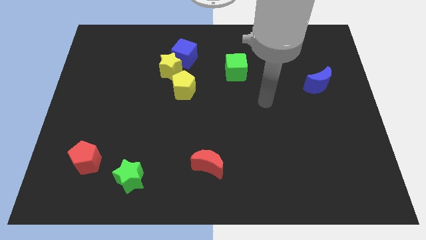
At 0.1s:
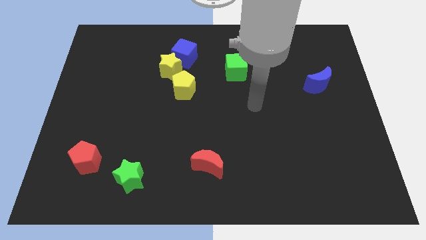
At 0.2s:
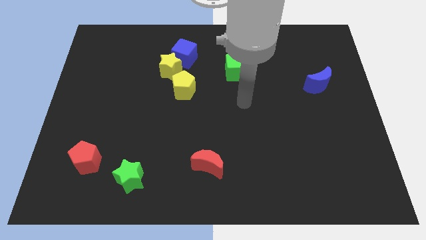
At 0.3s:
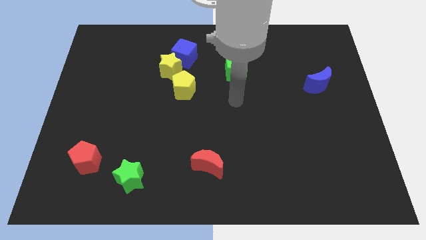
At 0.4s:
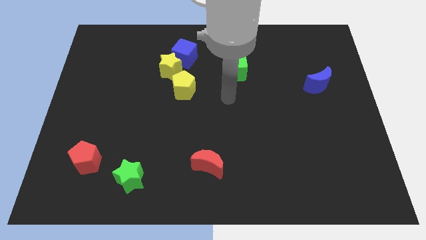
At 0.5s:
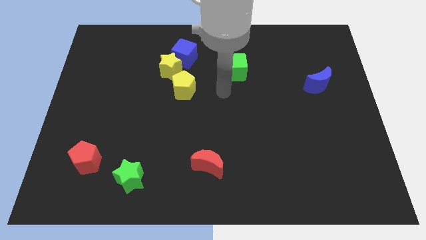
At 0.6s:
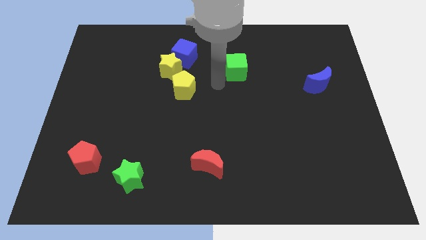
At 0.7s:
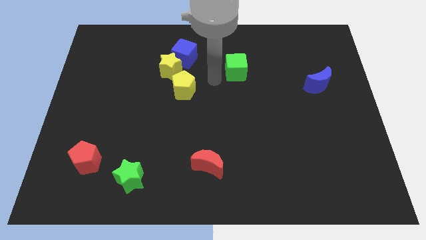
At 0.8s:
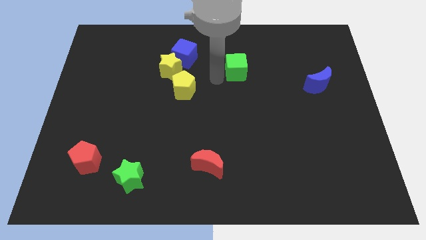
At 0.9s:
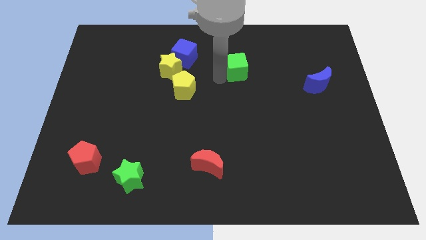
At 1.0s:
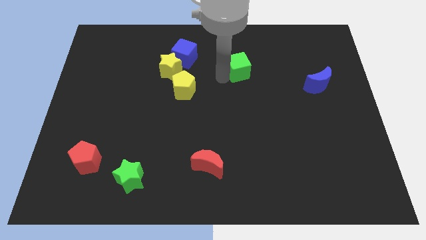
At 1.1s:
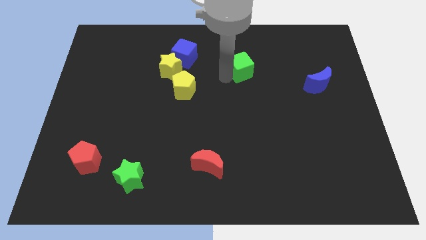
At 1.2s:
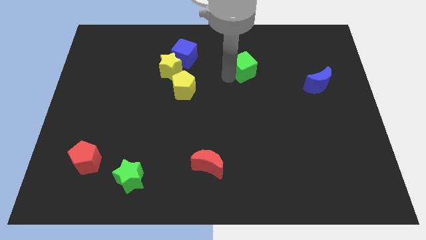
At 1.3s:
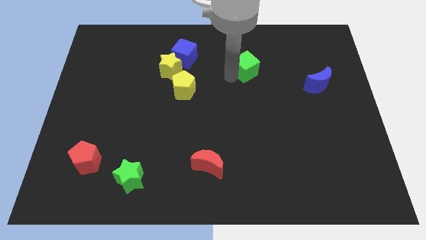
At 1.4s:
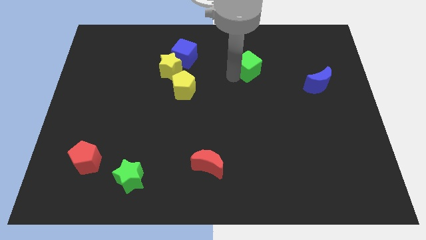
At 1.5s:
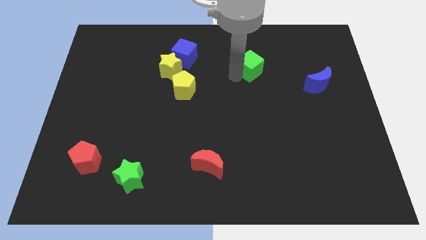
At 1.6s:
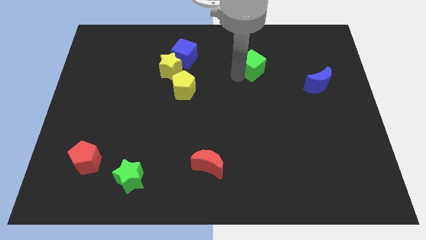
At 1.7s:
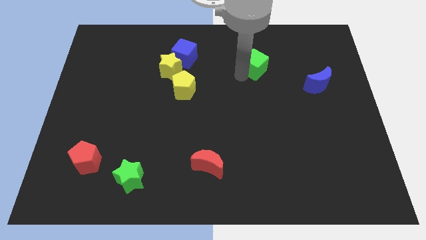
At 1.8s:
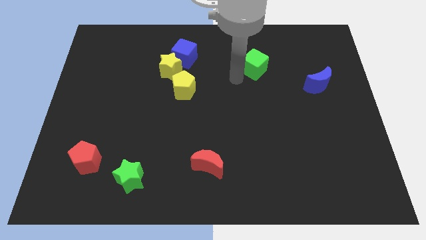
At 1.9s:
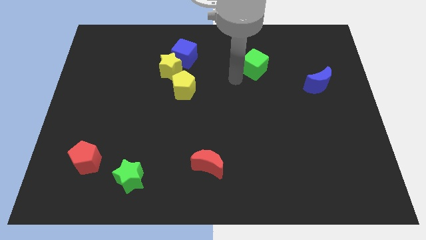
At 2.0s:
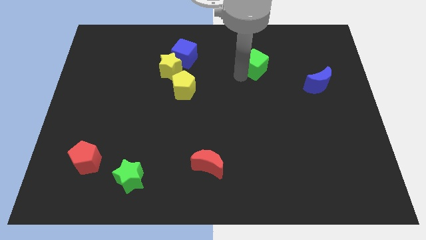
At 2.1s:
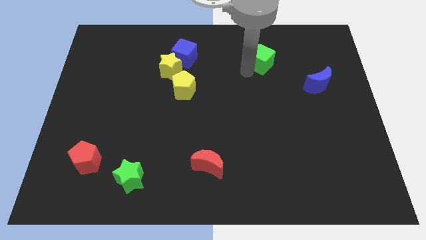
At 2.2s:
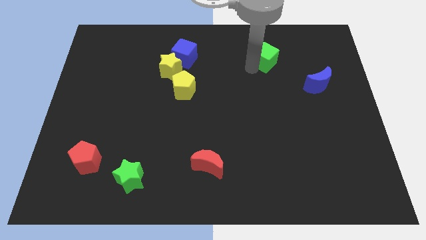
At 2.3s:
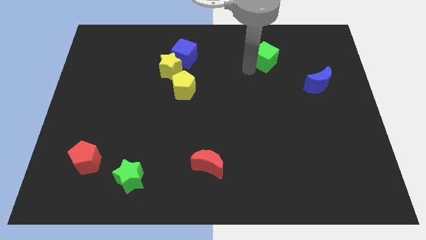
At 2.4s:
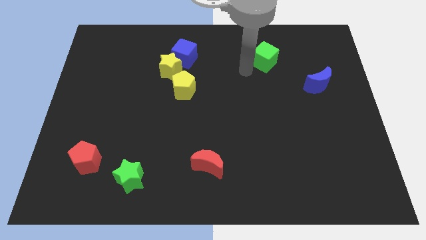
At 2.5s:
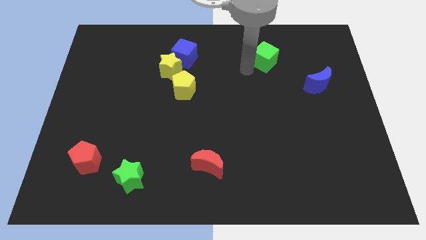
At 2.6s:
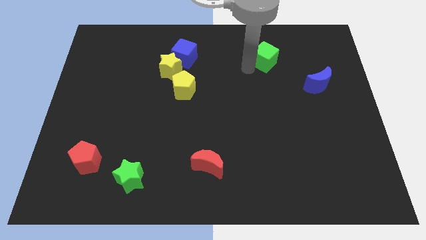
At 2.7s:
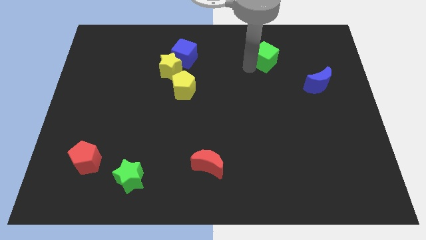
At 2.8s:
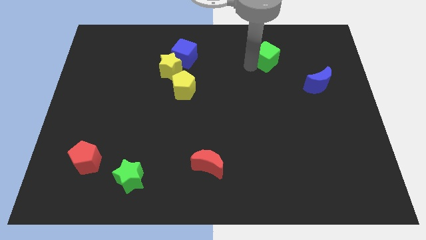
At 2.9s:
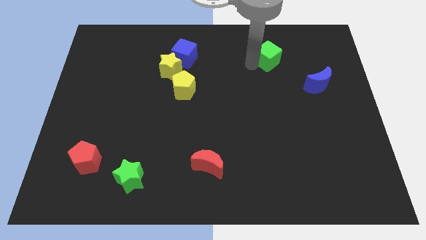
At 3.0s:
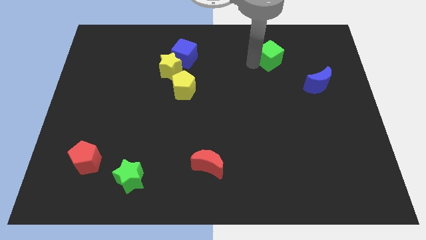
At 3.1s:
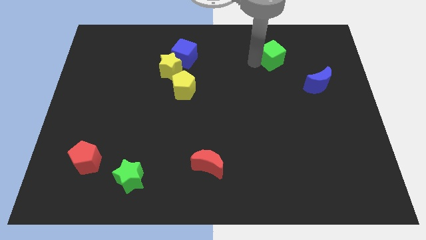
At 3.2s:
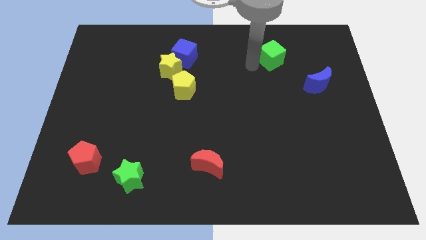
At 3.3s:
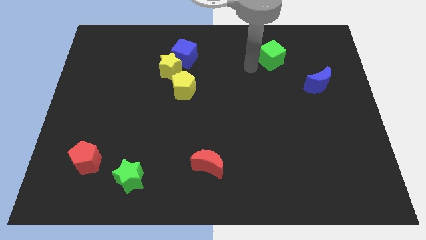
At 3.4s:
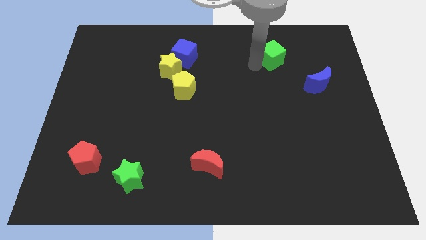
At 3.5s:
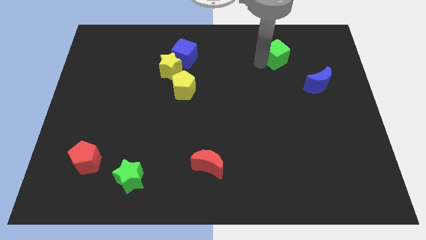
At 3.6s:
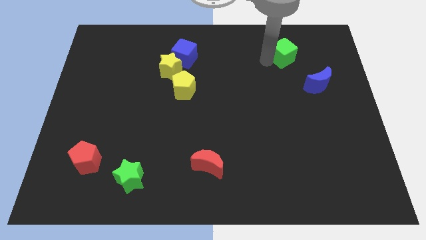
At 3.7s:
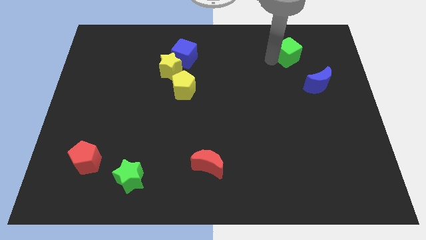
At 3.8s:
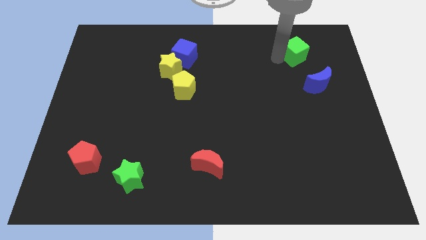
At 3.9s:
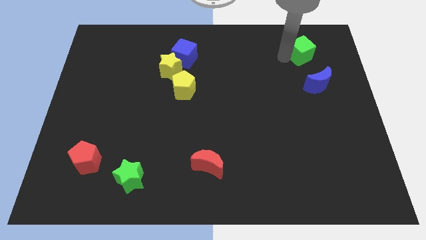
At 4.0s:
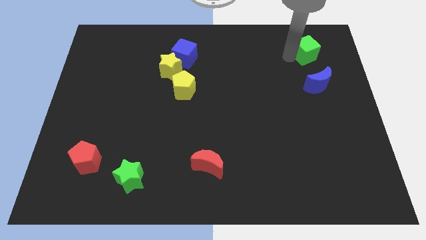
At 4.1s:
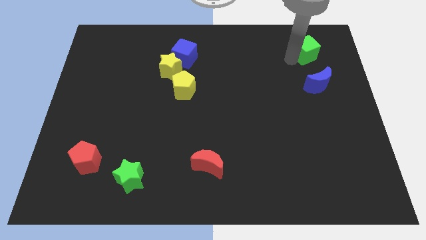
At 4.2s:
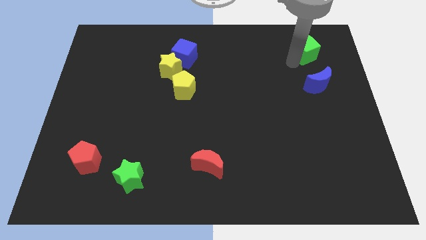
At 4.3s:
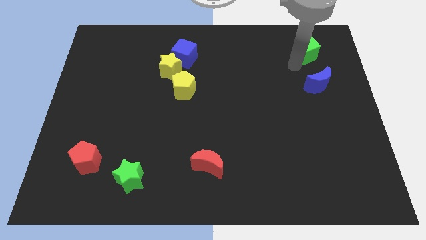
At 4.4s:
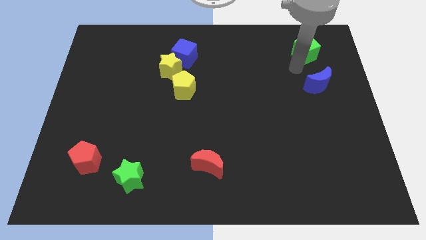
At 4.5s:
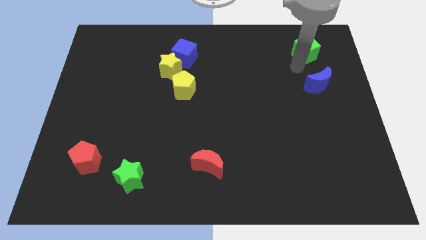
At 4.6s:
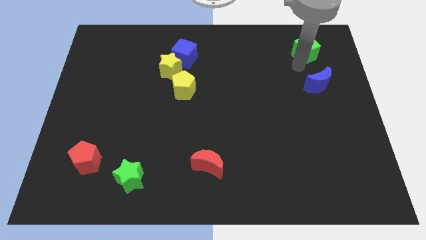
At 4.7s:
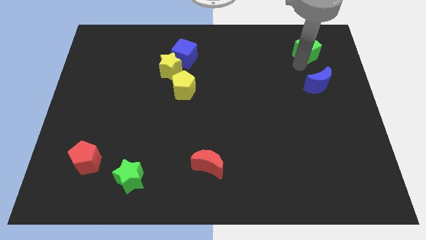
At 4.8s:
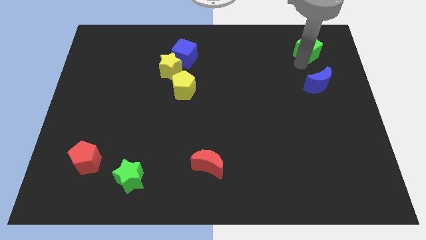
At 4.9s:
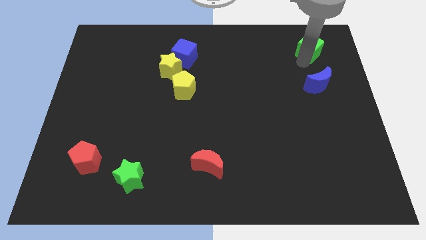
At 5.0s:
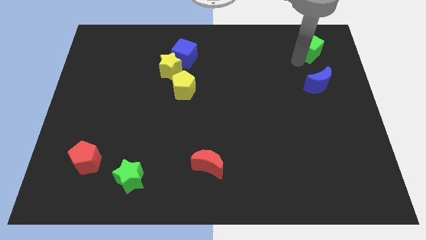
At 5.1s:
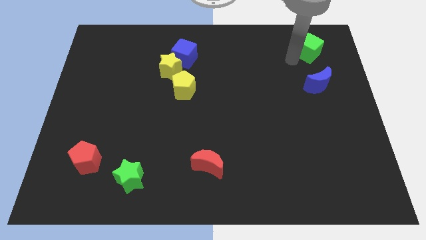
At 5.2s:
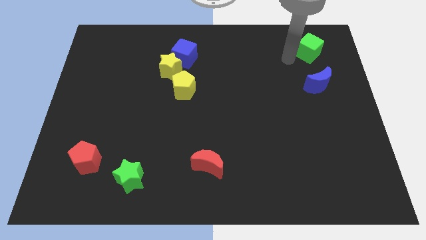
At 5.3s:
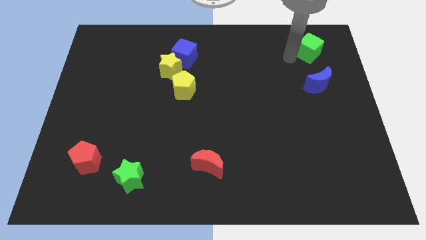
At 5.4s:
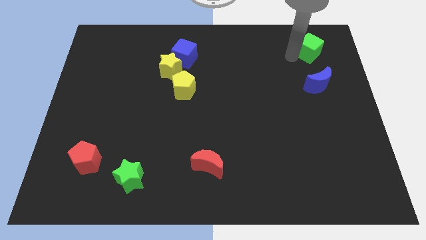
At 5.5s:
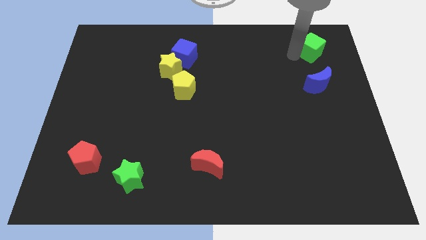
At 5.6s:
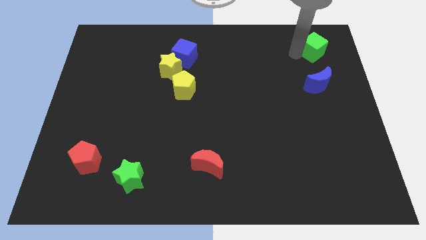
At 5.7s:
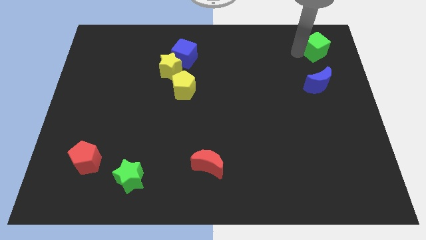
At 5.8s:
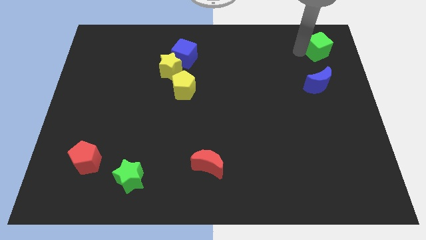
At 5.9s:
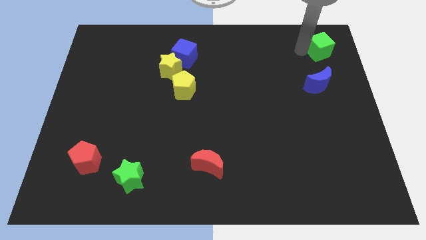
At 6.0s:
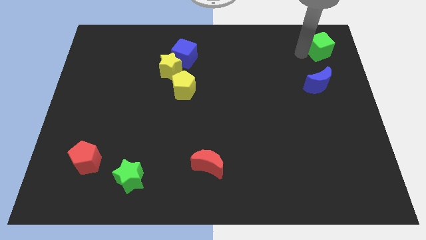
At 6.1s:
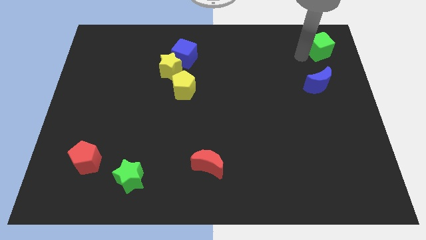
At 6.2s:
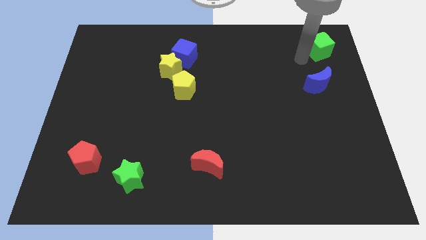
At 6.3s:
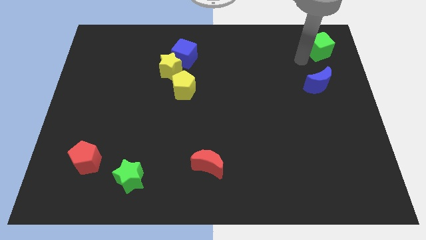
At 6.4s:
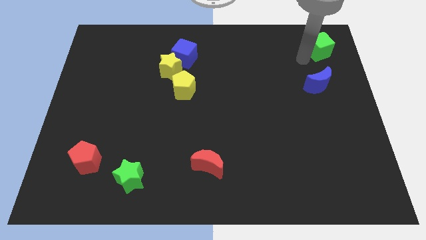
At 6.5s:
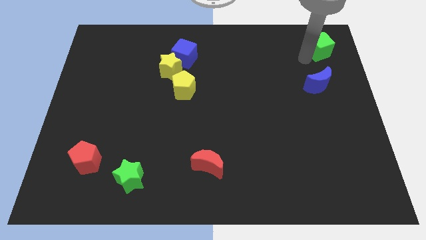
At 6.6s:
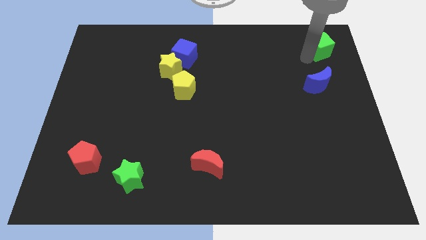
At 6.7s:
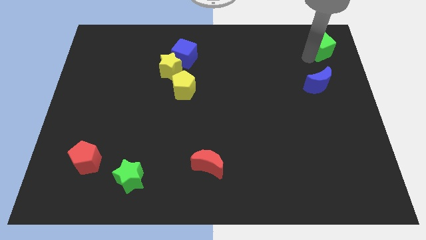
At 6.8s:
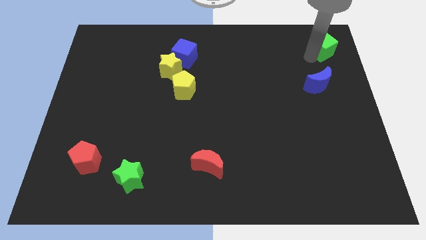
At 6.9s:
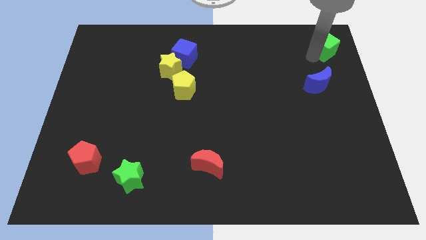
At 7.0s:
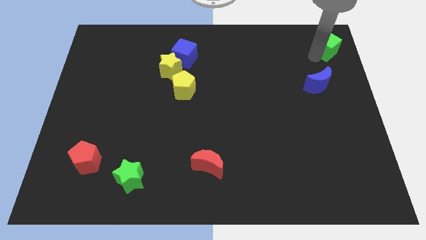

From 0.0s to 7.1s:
push the green cube to the upper right corner

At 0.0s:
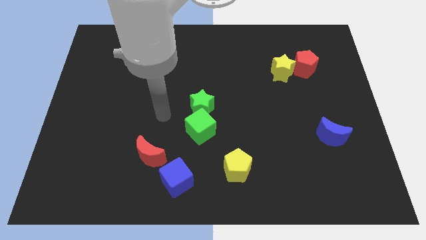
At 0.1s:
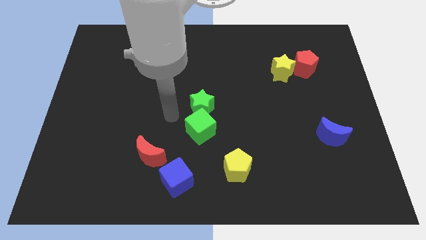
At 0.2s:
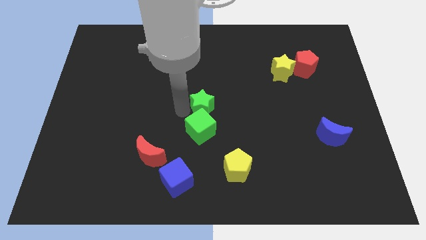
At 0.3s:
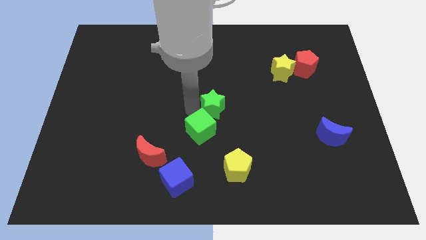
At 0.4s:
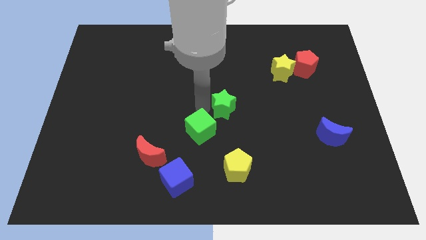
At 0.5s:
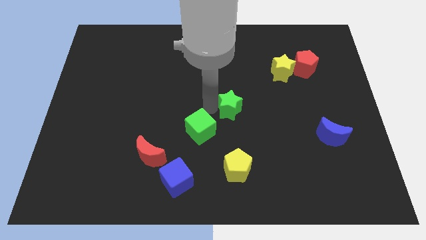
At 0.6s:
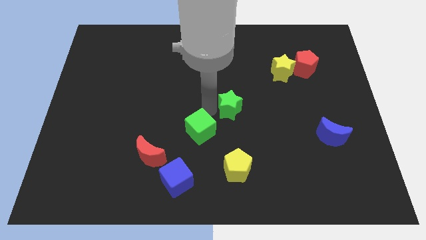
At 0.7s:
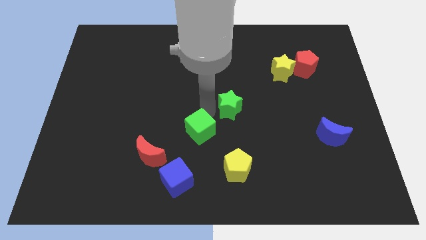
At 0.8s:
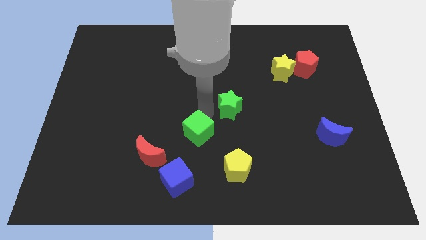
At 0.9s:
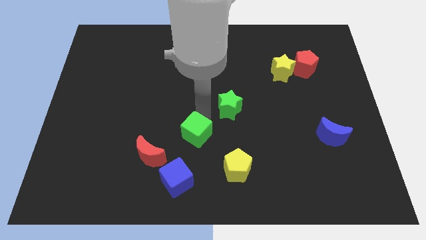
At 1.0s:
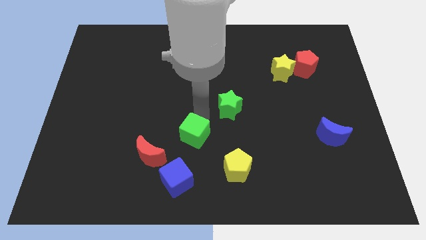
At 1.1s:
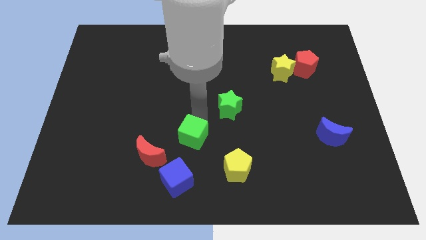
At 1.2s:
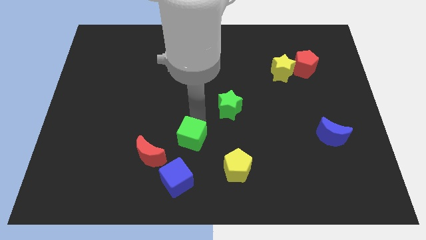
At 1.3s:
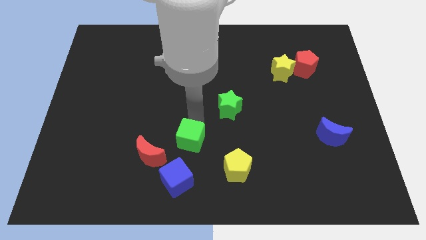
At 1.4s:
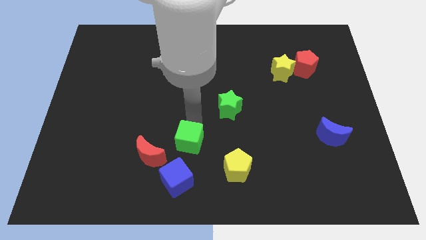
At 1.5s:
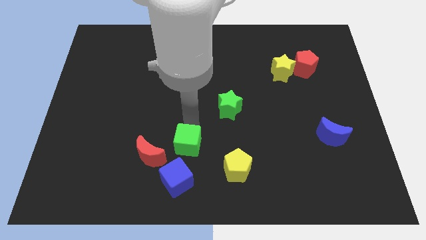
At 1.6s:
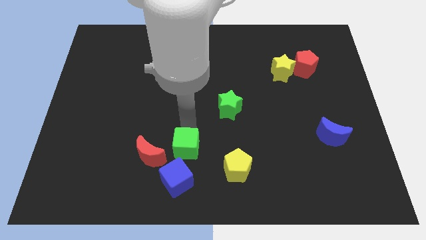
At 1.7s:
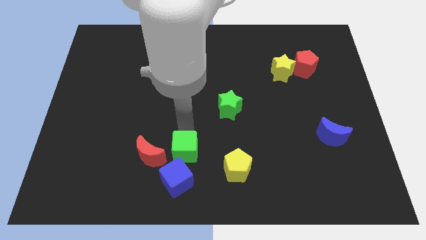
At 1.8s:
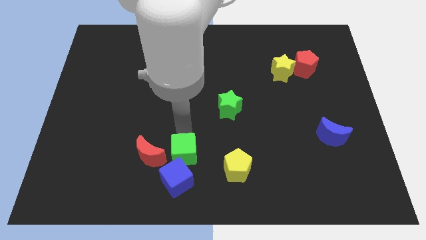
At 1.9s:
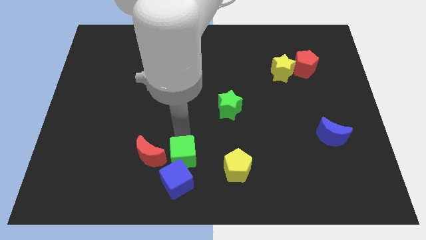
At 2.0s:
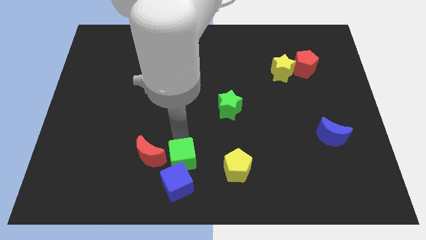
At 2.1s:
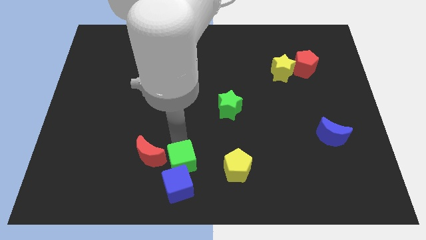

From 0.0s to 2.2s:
push the green cube to the bottom side
